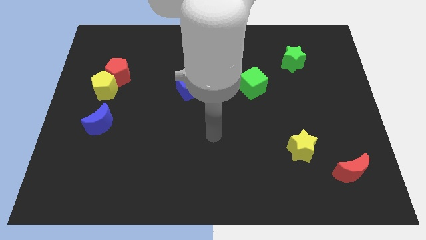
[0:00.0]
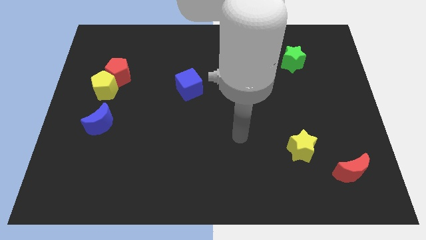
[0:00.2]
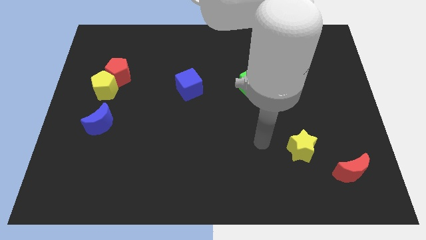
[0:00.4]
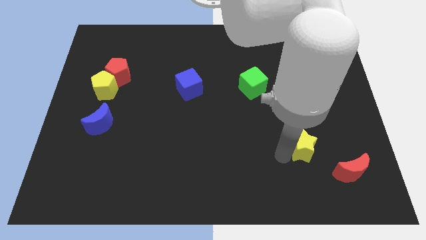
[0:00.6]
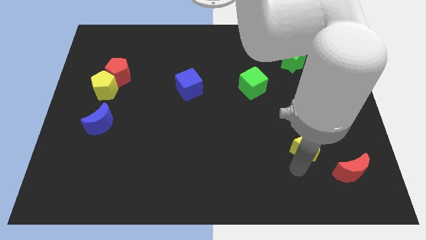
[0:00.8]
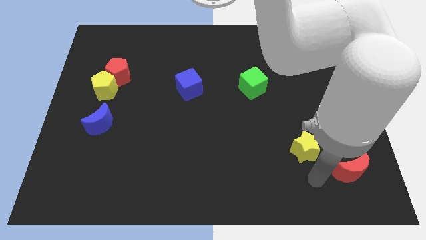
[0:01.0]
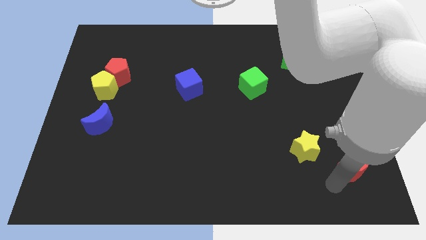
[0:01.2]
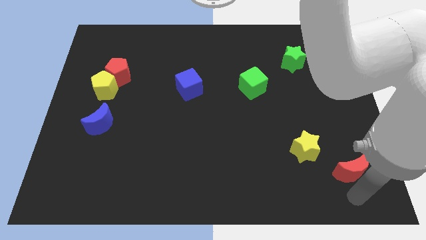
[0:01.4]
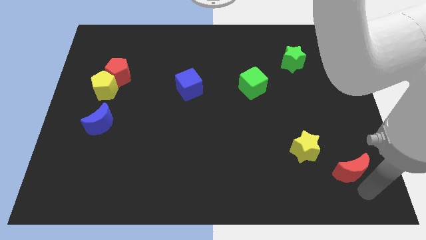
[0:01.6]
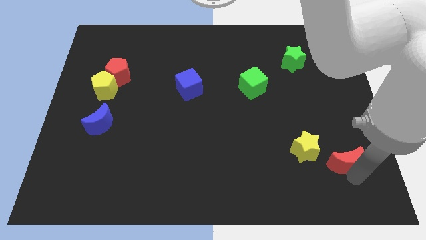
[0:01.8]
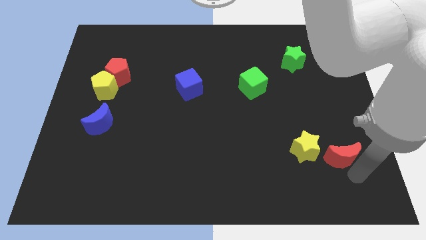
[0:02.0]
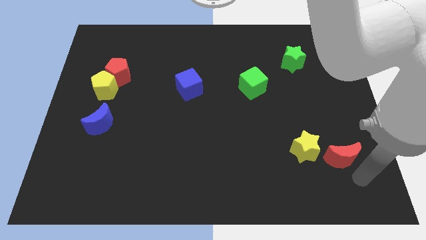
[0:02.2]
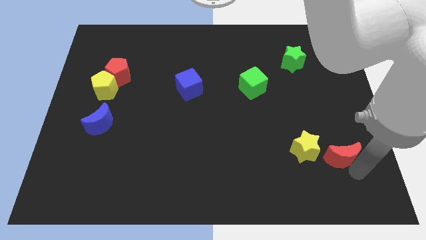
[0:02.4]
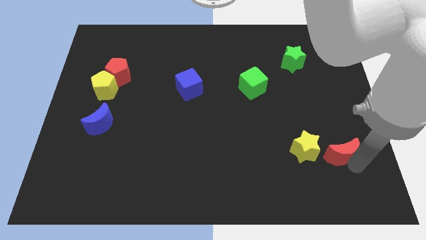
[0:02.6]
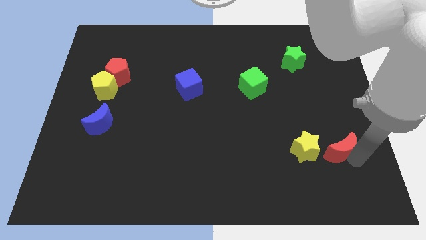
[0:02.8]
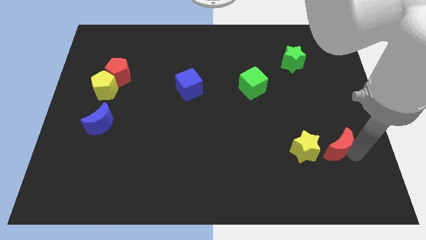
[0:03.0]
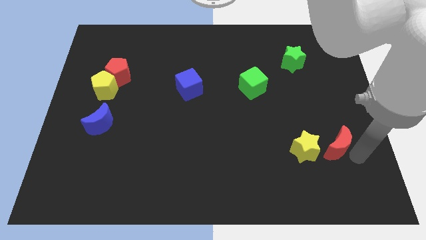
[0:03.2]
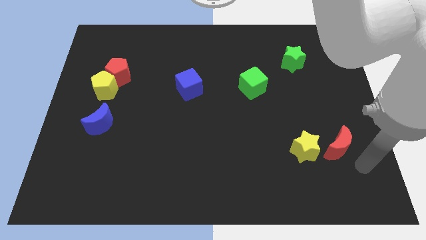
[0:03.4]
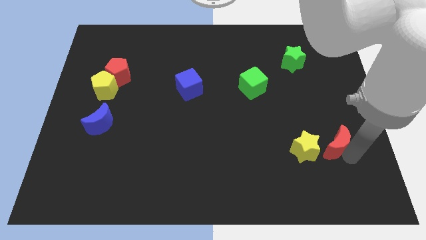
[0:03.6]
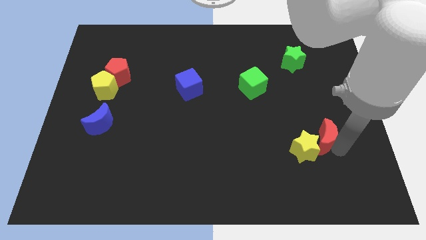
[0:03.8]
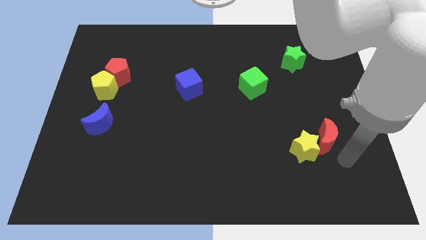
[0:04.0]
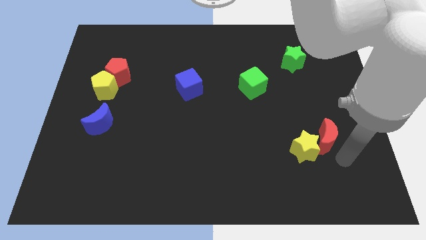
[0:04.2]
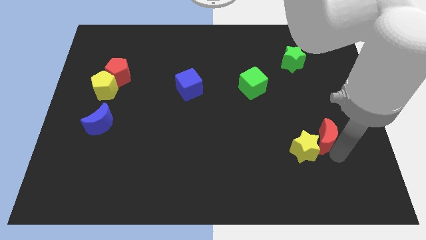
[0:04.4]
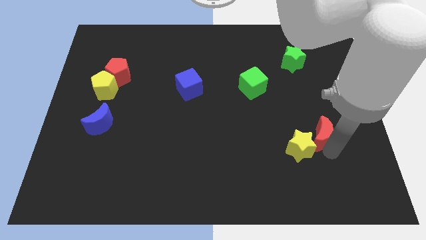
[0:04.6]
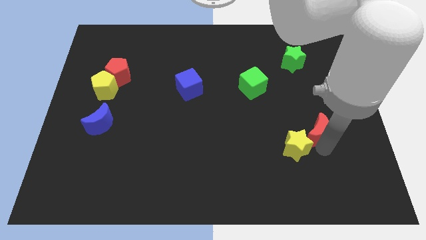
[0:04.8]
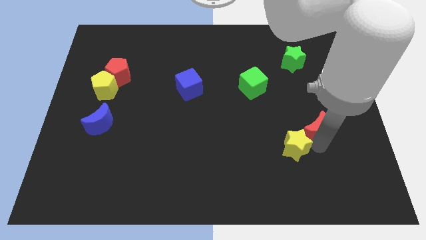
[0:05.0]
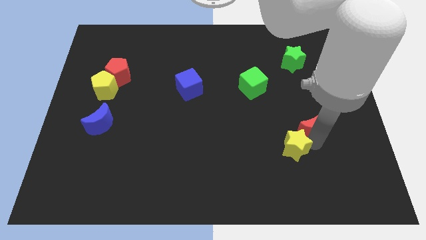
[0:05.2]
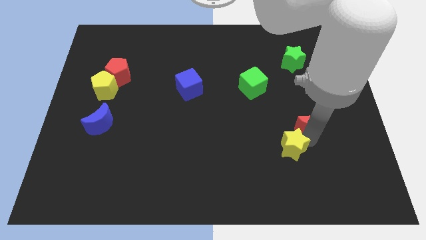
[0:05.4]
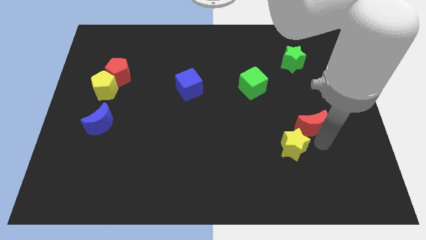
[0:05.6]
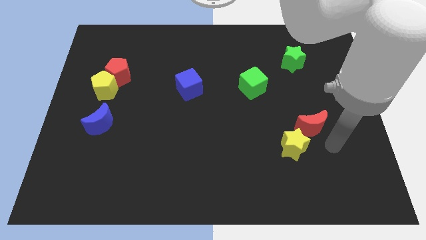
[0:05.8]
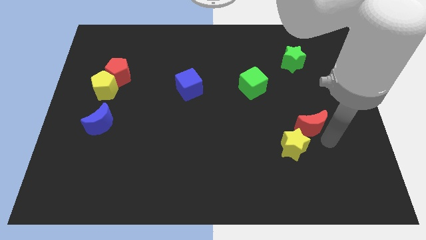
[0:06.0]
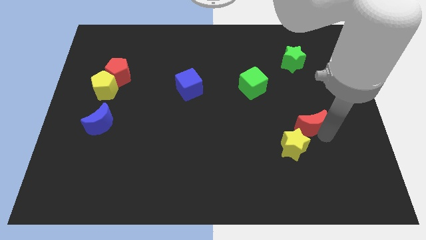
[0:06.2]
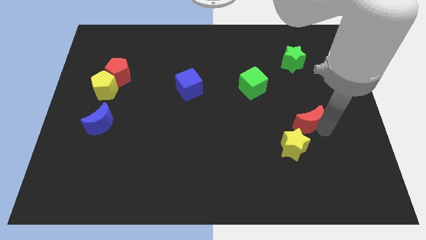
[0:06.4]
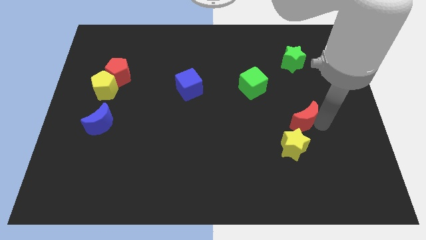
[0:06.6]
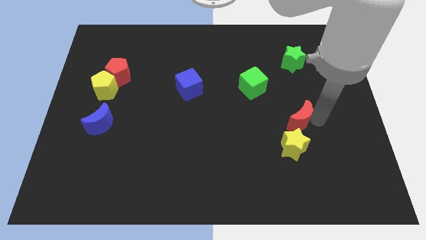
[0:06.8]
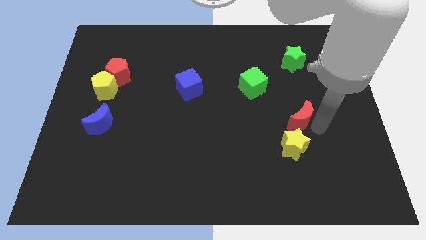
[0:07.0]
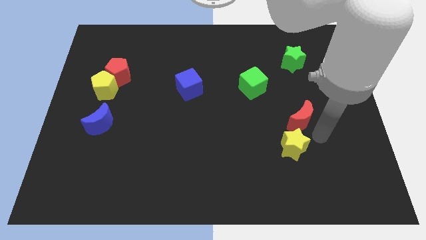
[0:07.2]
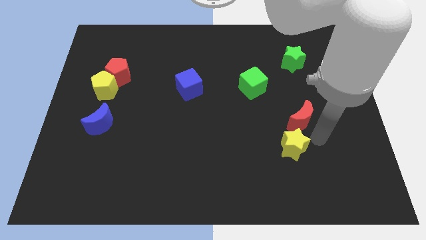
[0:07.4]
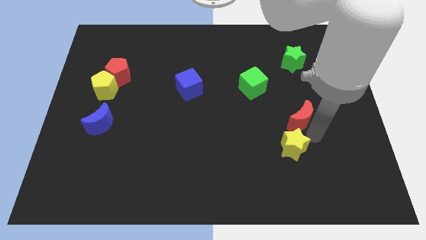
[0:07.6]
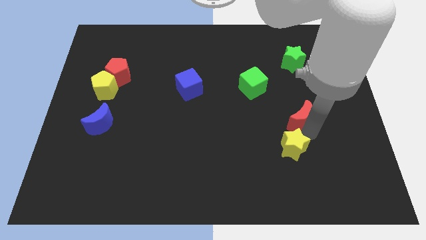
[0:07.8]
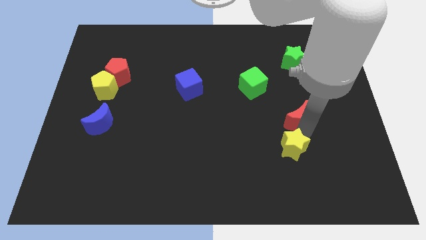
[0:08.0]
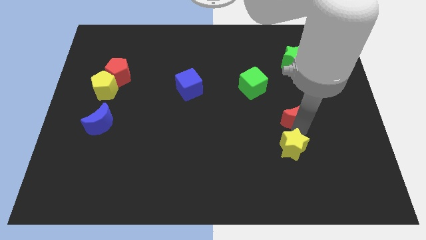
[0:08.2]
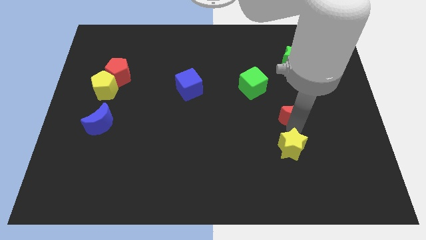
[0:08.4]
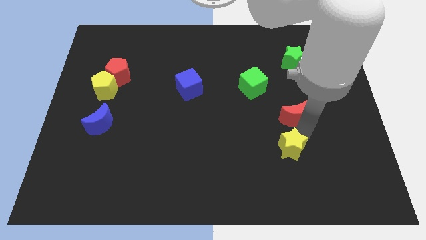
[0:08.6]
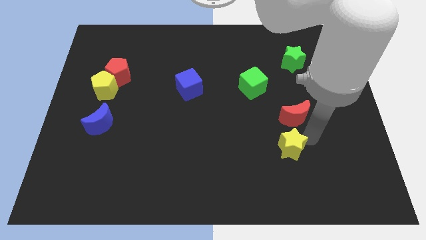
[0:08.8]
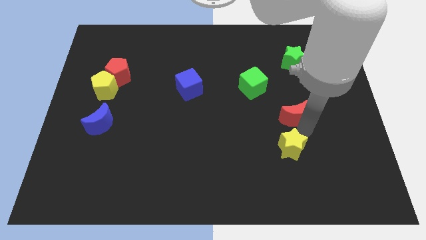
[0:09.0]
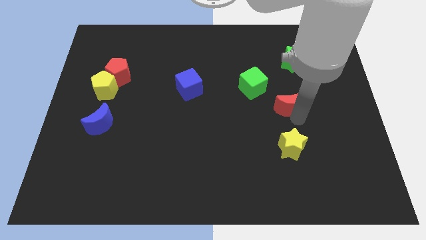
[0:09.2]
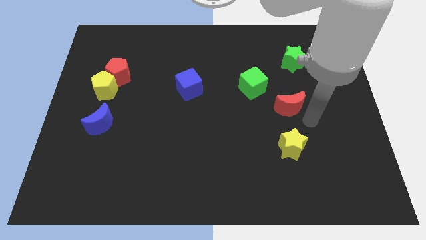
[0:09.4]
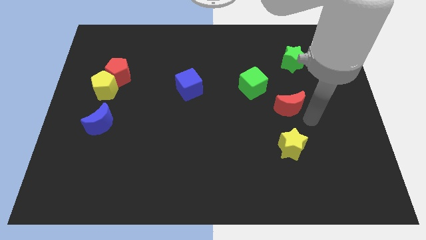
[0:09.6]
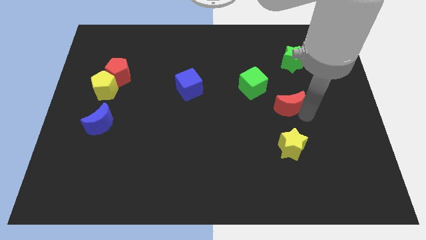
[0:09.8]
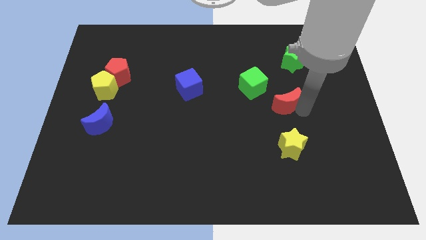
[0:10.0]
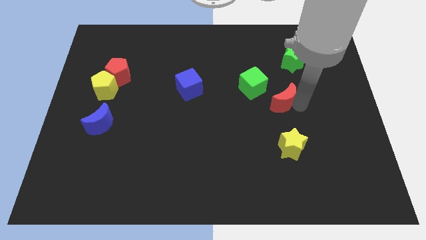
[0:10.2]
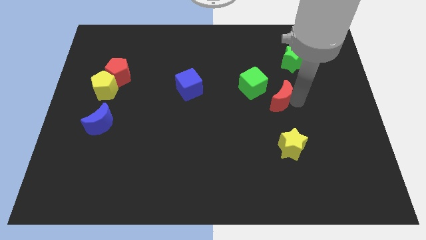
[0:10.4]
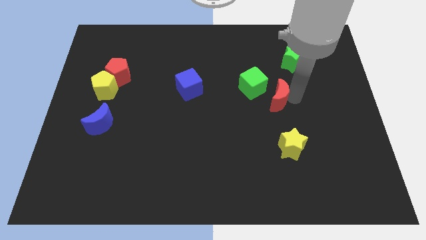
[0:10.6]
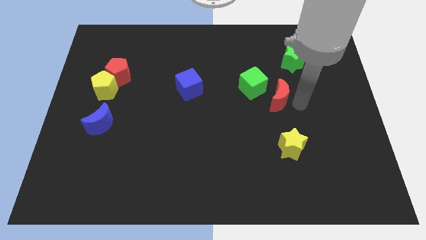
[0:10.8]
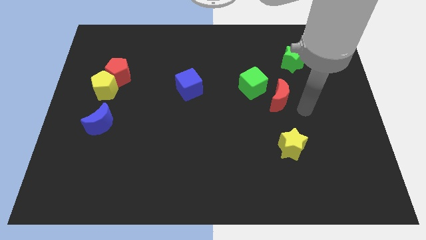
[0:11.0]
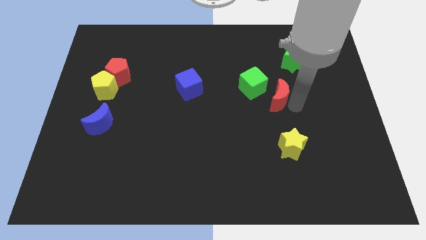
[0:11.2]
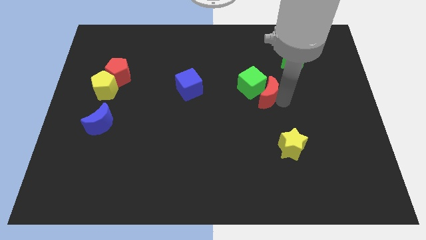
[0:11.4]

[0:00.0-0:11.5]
push the red moon towards the green cube

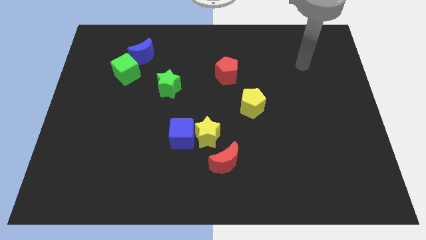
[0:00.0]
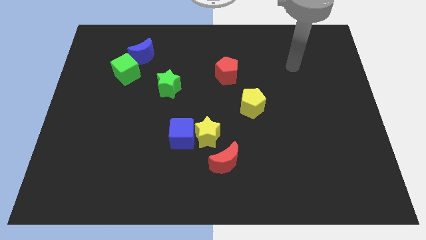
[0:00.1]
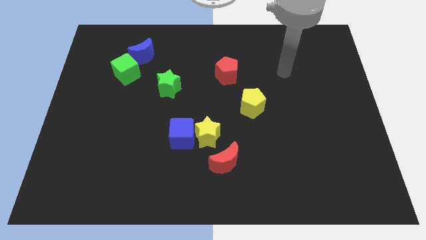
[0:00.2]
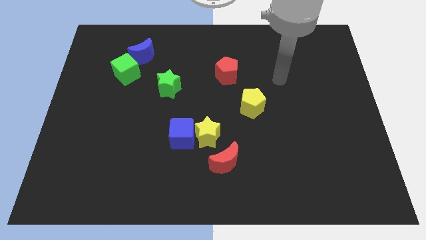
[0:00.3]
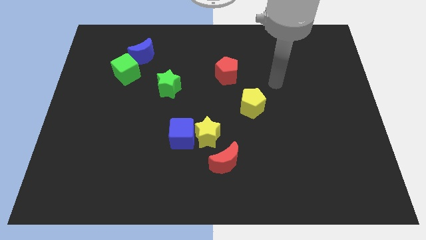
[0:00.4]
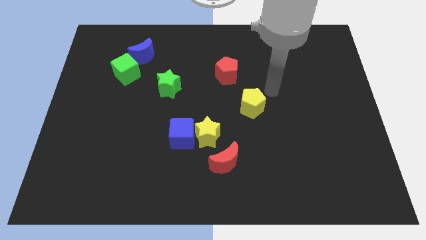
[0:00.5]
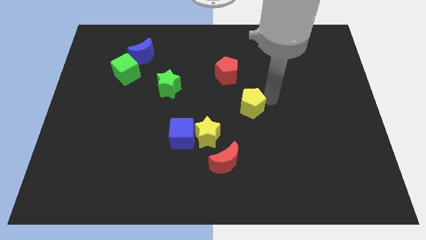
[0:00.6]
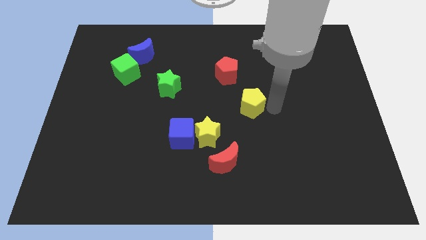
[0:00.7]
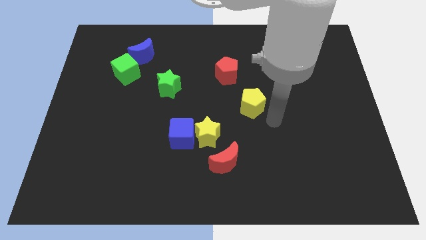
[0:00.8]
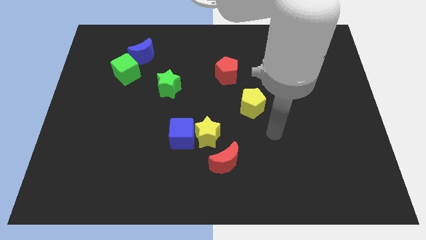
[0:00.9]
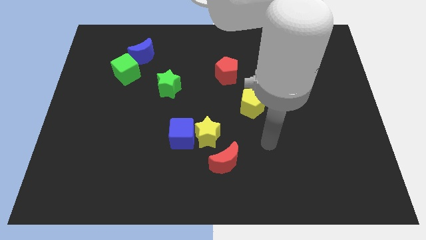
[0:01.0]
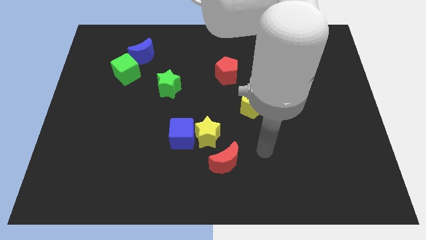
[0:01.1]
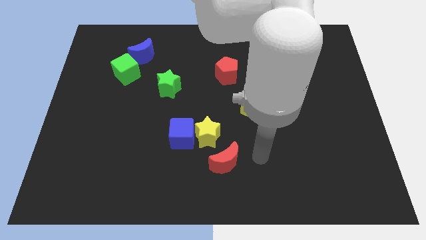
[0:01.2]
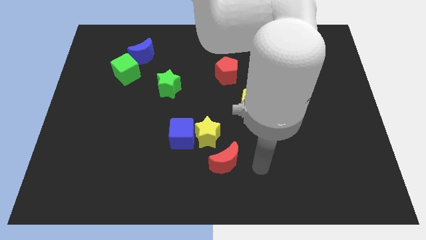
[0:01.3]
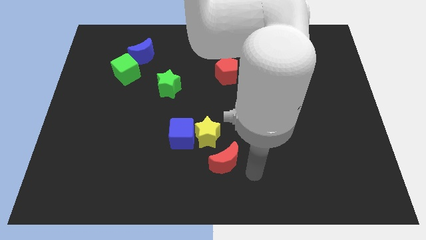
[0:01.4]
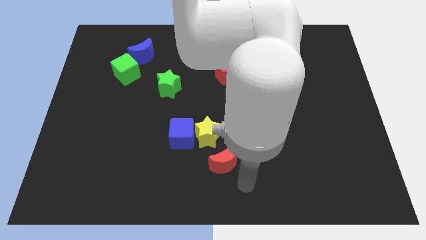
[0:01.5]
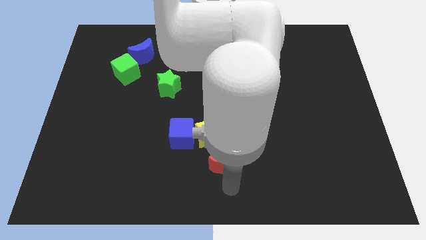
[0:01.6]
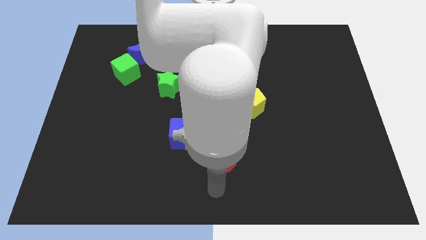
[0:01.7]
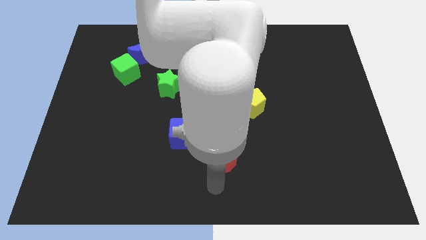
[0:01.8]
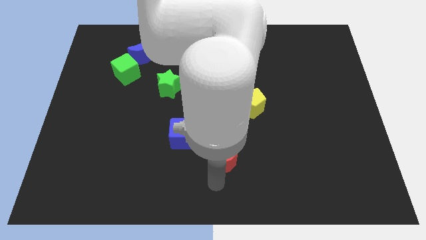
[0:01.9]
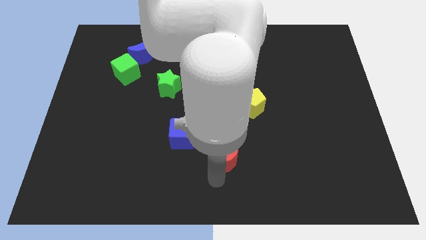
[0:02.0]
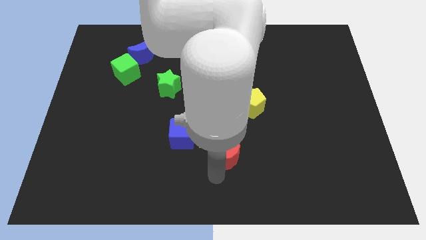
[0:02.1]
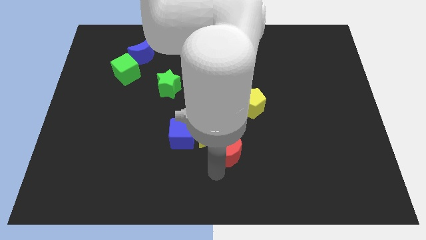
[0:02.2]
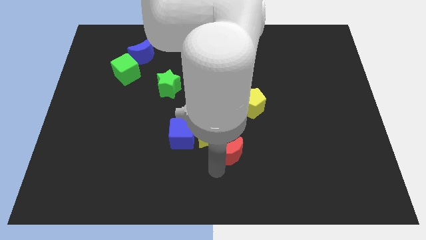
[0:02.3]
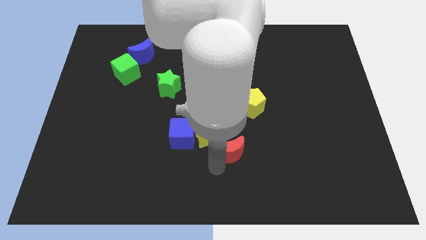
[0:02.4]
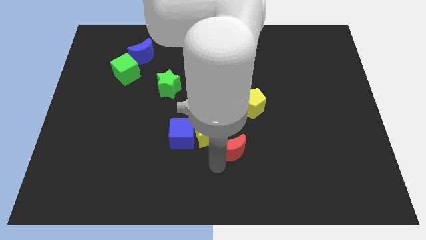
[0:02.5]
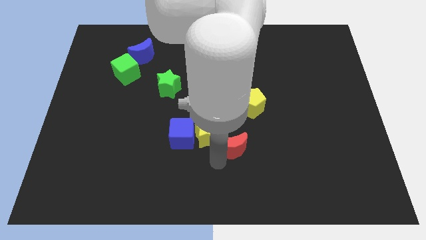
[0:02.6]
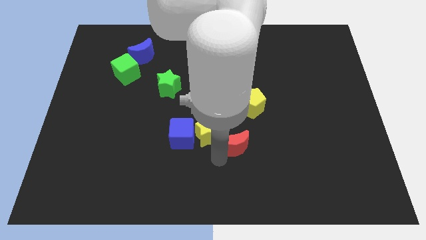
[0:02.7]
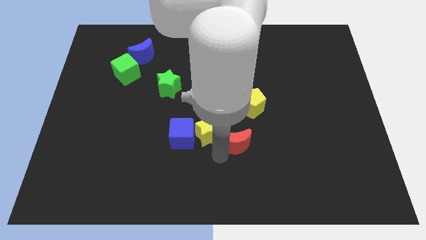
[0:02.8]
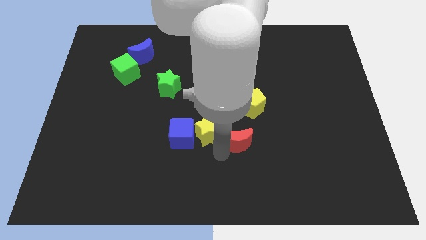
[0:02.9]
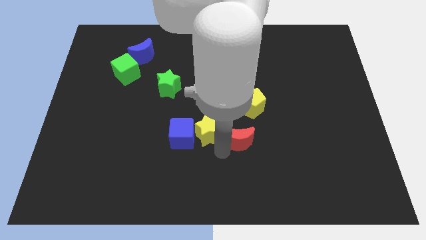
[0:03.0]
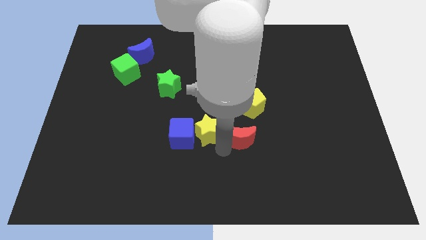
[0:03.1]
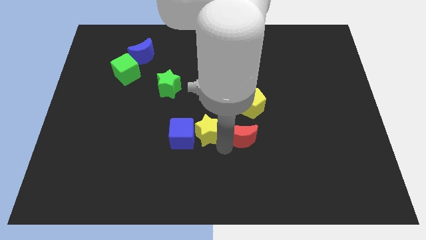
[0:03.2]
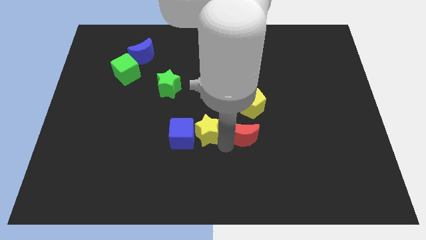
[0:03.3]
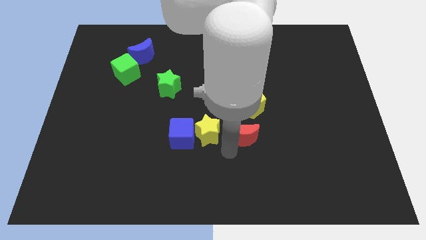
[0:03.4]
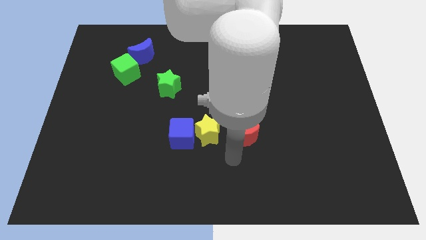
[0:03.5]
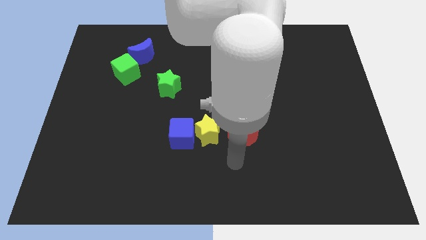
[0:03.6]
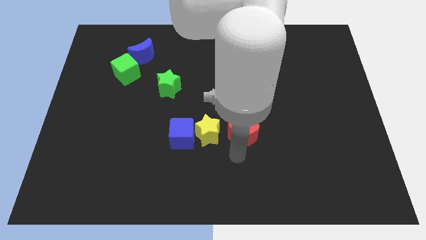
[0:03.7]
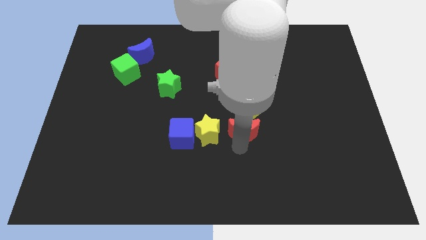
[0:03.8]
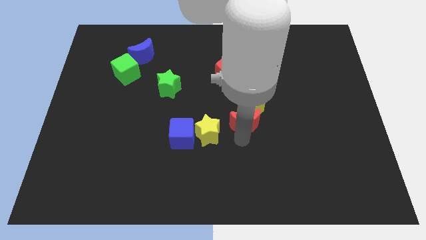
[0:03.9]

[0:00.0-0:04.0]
move the red moon next to the yellow pentagon
